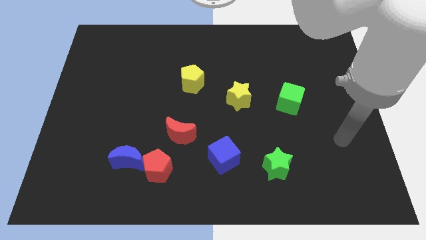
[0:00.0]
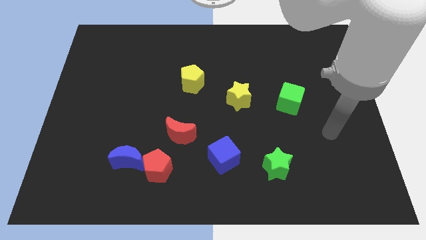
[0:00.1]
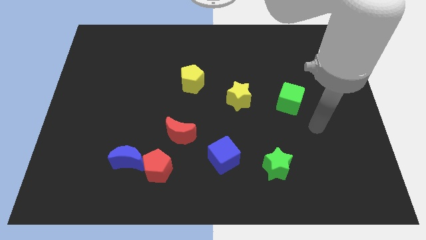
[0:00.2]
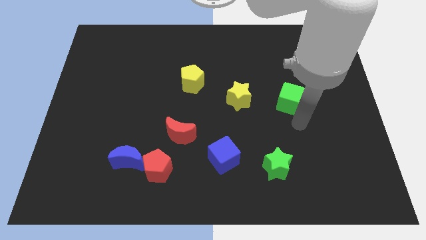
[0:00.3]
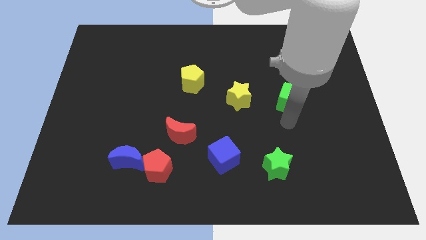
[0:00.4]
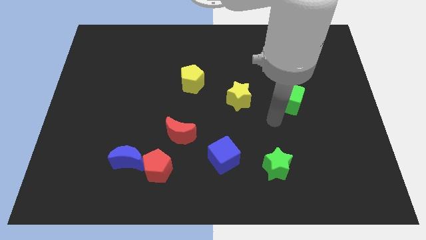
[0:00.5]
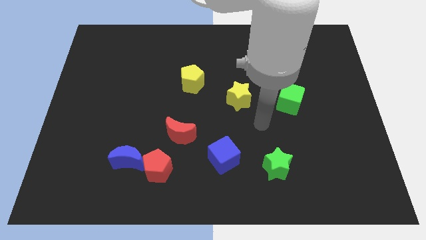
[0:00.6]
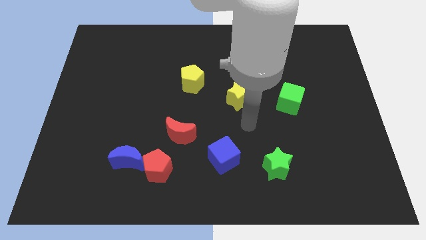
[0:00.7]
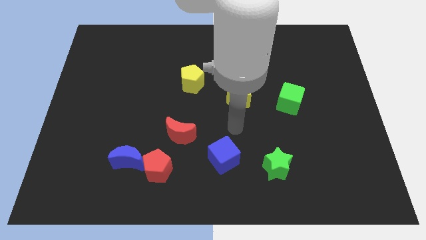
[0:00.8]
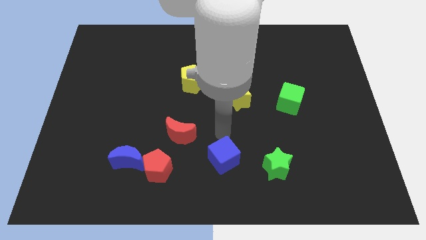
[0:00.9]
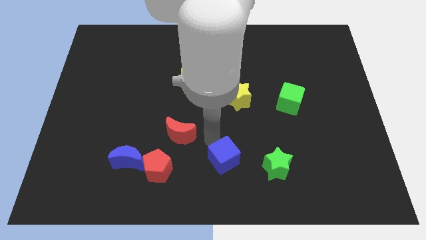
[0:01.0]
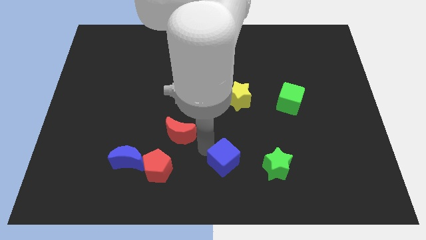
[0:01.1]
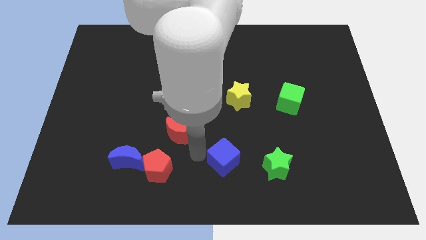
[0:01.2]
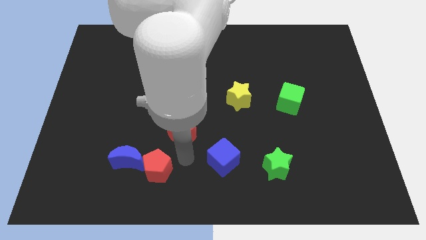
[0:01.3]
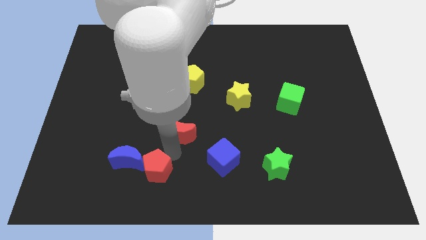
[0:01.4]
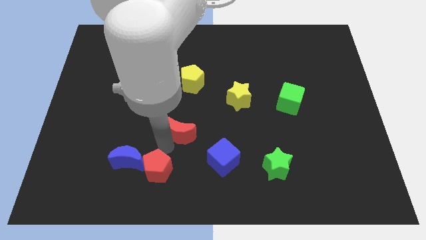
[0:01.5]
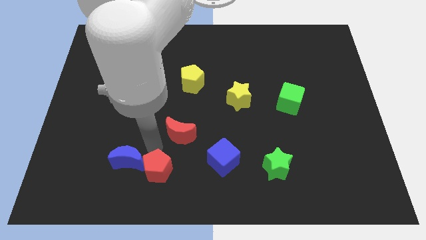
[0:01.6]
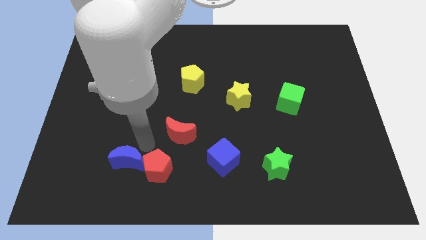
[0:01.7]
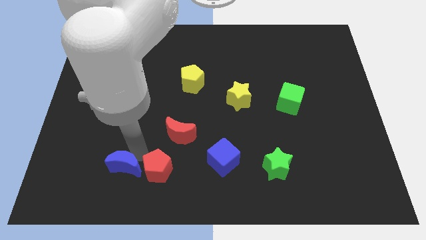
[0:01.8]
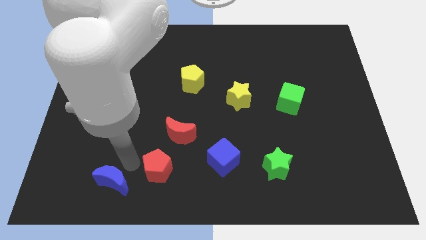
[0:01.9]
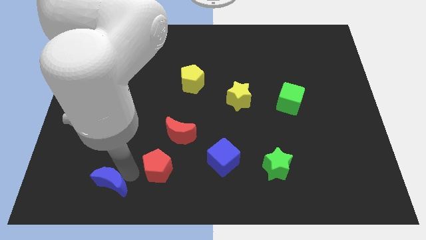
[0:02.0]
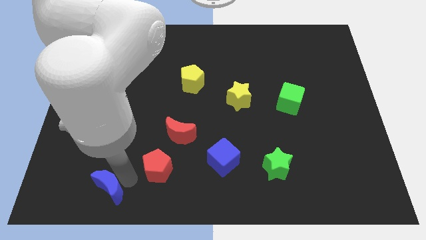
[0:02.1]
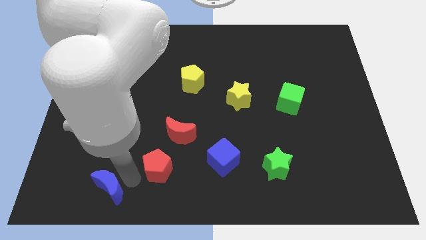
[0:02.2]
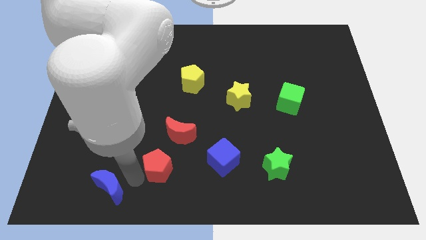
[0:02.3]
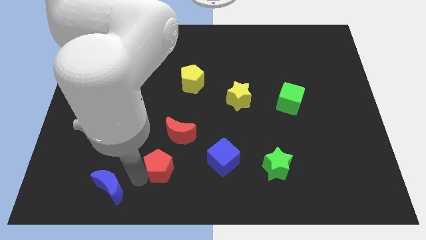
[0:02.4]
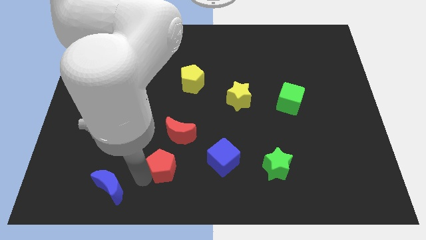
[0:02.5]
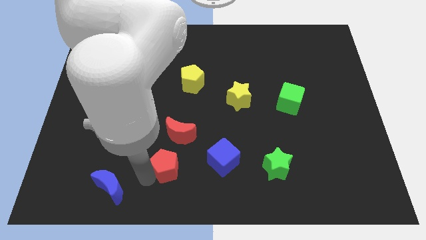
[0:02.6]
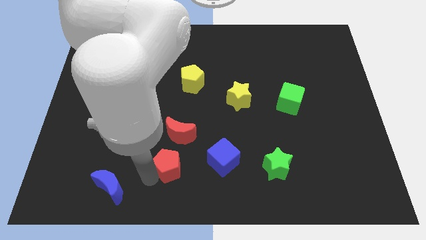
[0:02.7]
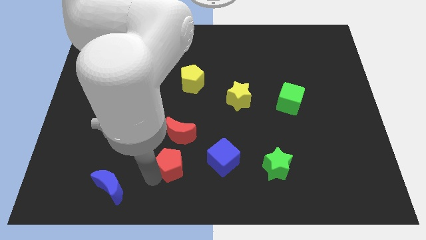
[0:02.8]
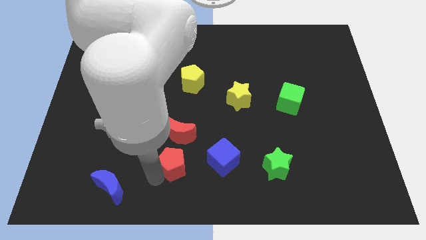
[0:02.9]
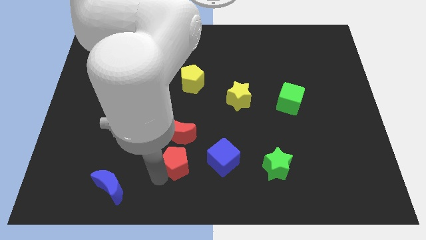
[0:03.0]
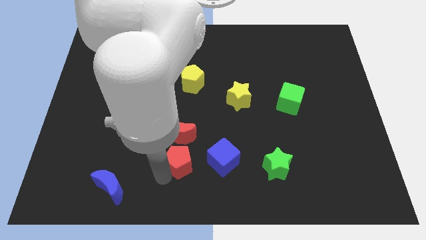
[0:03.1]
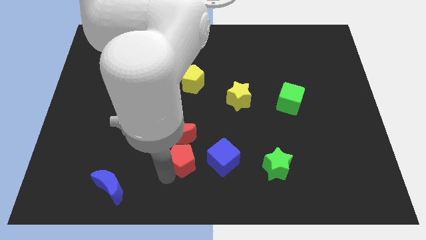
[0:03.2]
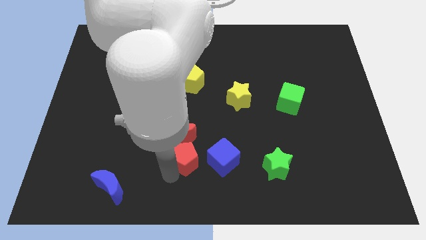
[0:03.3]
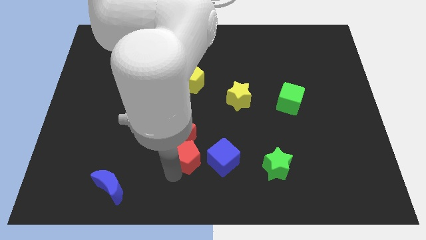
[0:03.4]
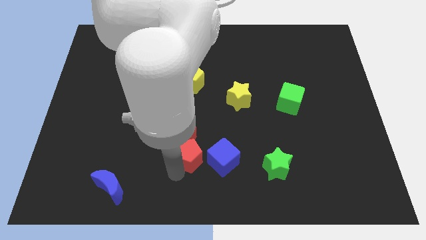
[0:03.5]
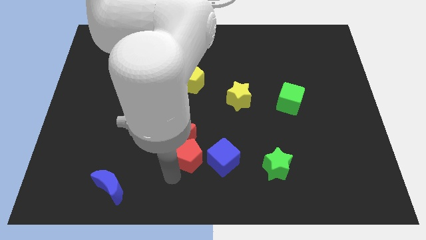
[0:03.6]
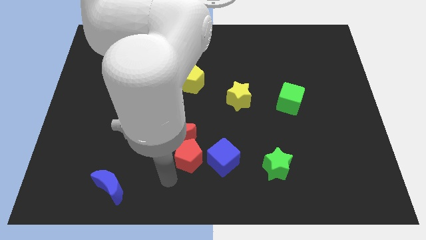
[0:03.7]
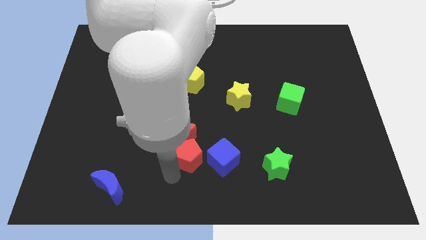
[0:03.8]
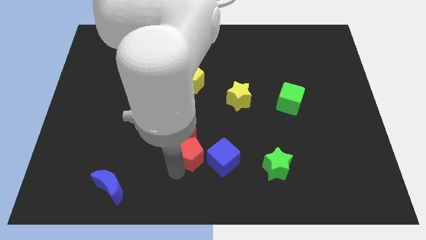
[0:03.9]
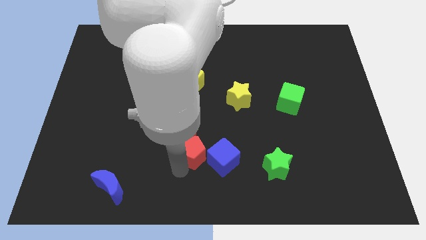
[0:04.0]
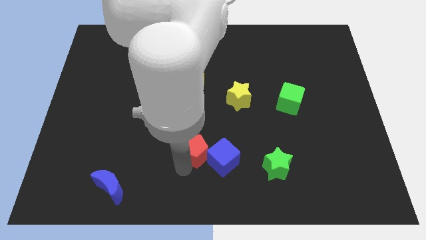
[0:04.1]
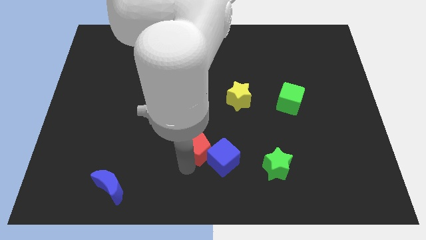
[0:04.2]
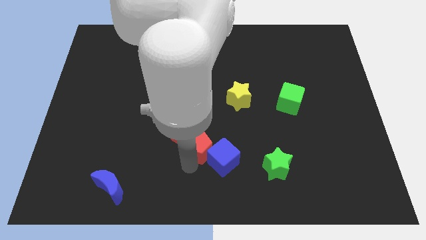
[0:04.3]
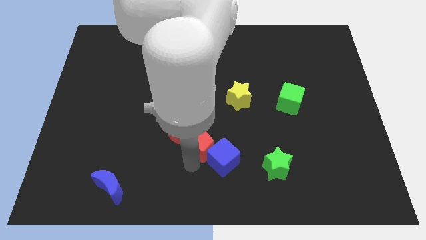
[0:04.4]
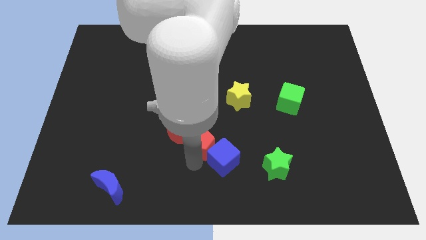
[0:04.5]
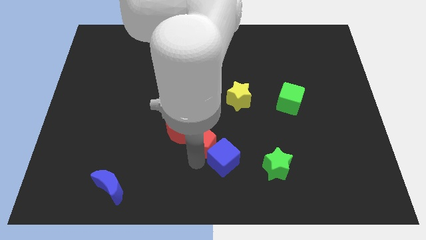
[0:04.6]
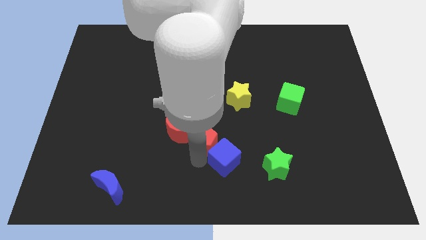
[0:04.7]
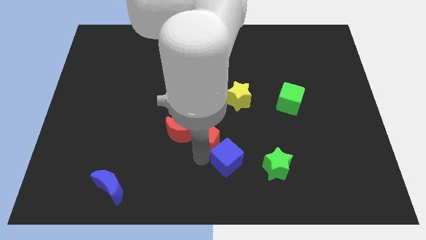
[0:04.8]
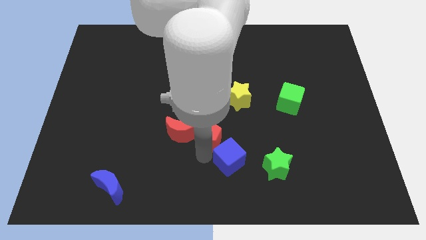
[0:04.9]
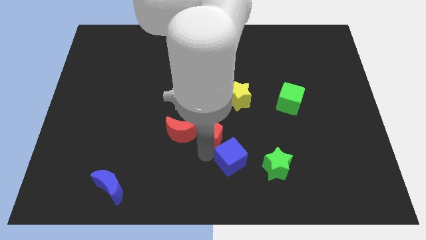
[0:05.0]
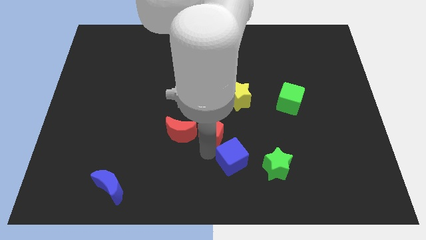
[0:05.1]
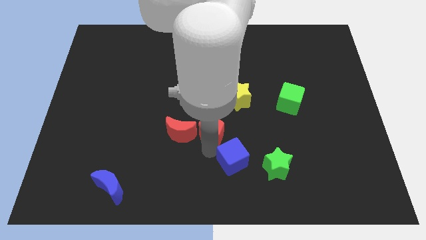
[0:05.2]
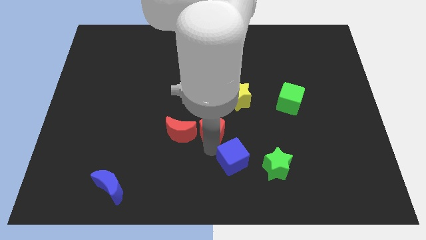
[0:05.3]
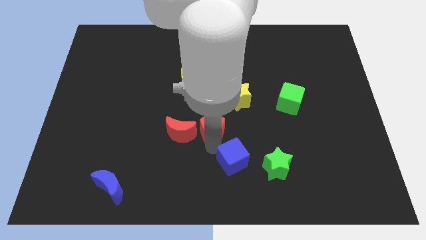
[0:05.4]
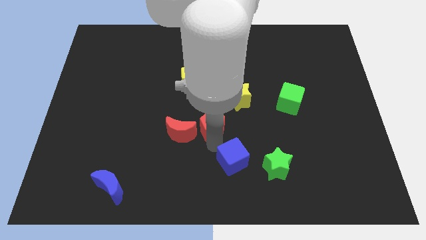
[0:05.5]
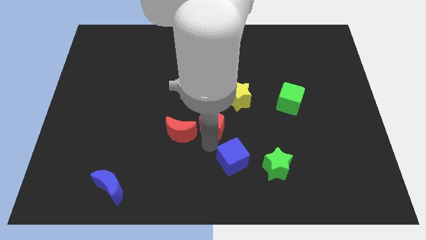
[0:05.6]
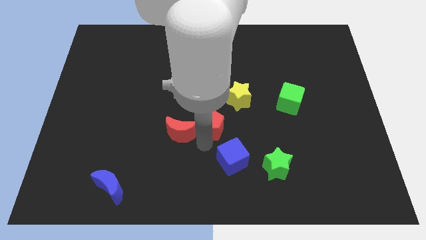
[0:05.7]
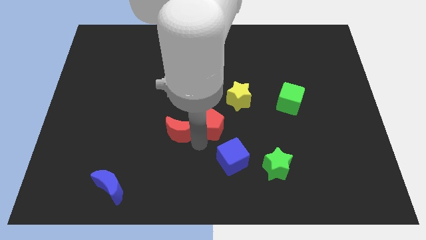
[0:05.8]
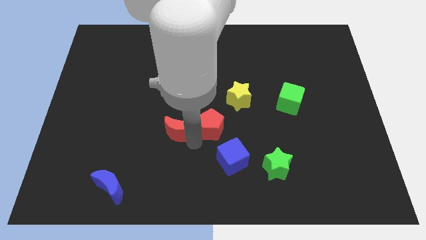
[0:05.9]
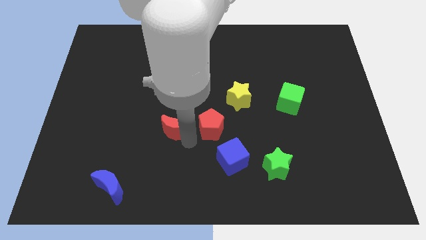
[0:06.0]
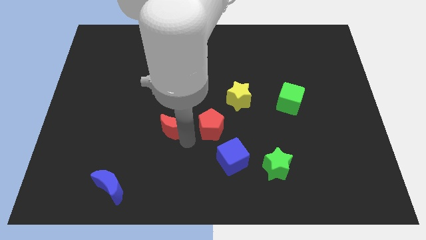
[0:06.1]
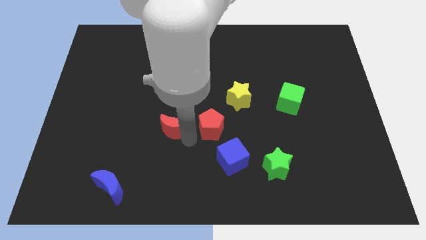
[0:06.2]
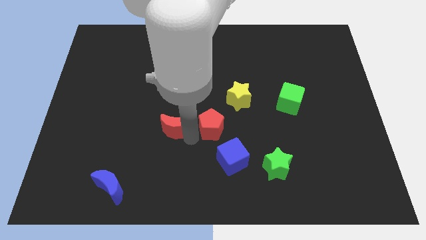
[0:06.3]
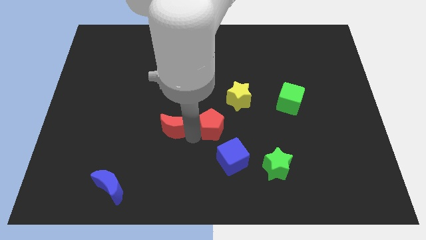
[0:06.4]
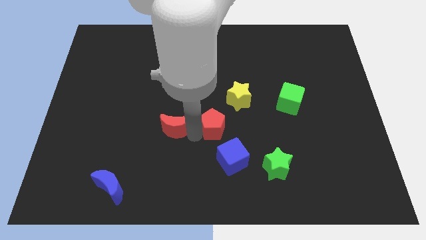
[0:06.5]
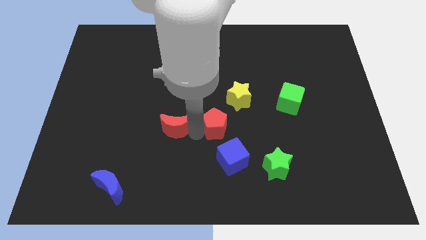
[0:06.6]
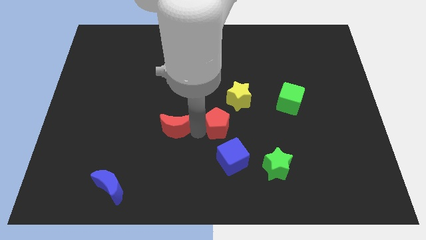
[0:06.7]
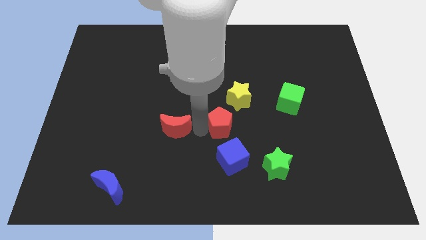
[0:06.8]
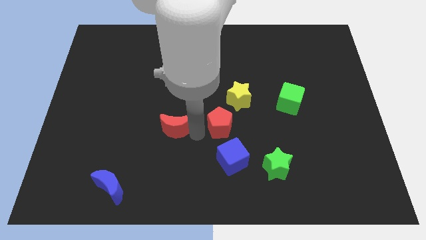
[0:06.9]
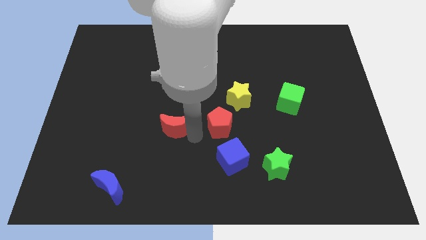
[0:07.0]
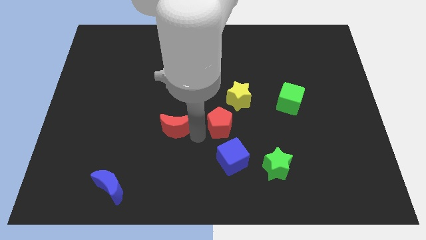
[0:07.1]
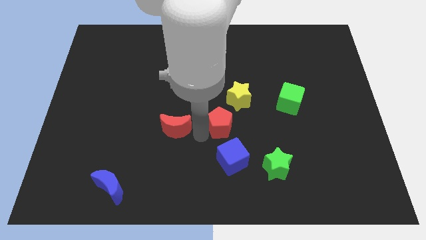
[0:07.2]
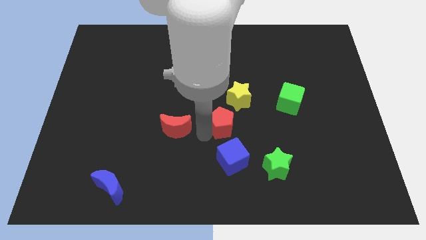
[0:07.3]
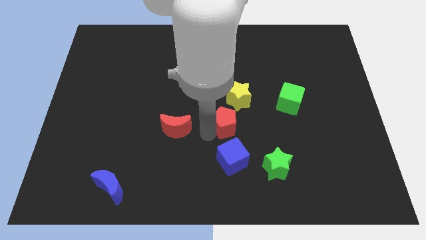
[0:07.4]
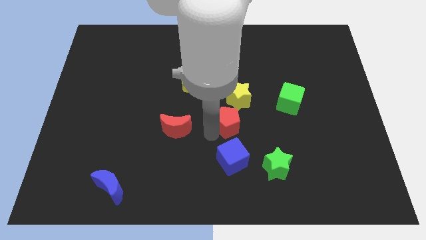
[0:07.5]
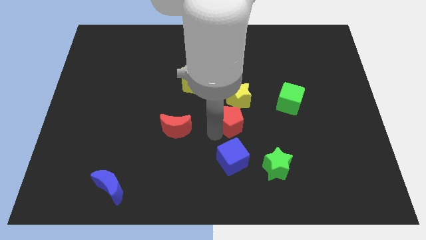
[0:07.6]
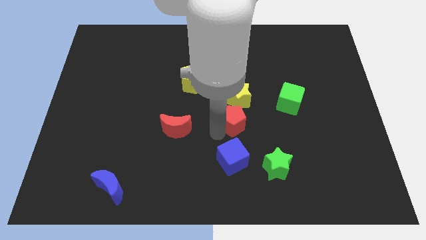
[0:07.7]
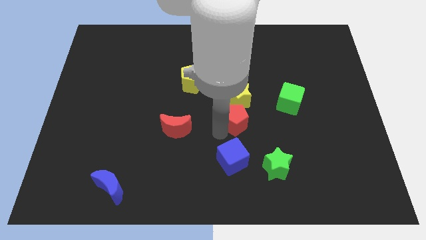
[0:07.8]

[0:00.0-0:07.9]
move the red pentagon up and right
